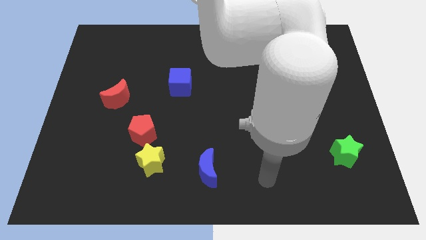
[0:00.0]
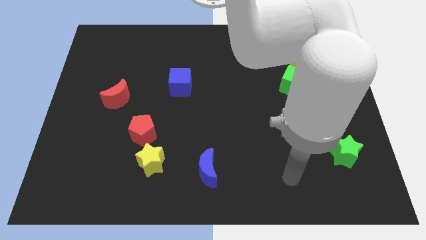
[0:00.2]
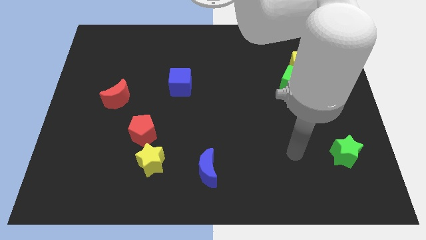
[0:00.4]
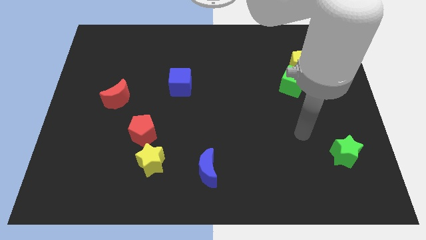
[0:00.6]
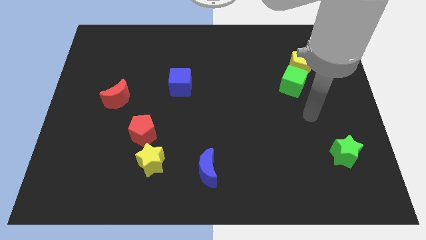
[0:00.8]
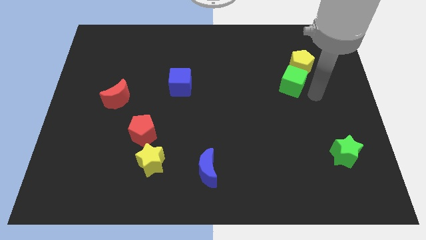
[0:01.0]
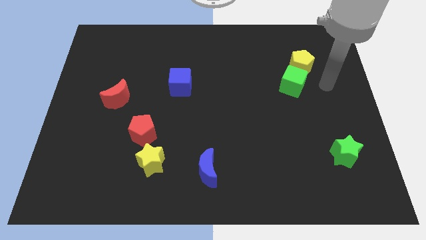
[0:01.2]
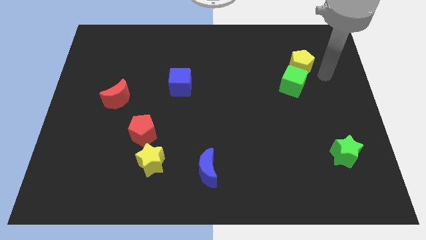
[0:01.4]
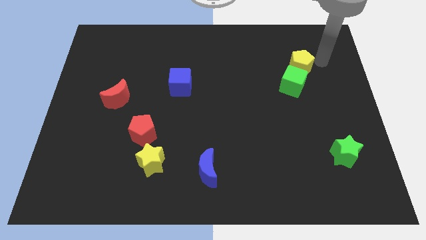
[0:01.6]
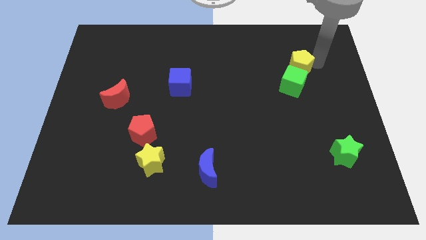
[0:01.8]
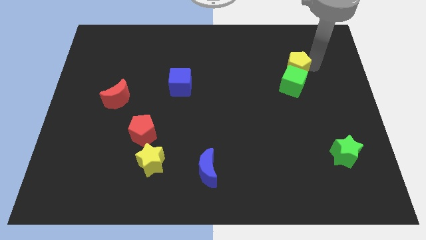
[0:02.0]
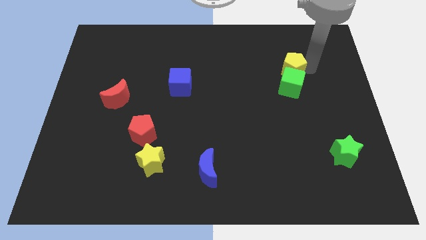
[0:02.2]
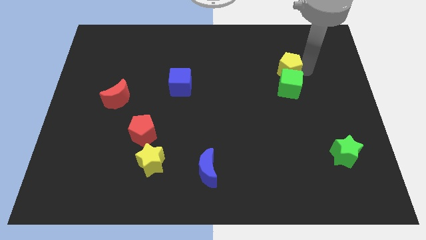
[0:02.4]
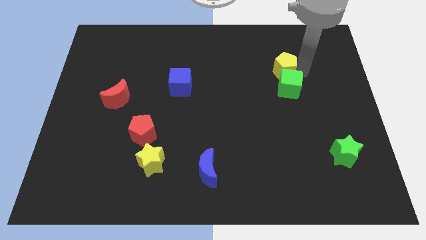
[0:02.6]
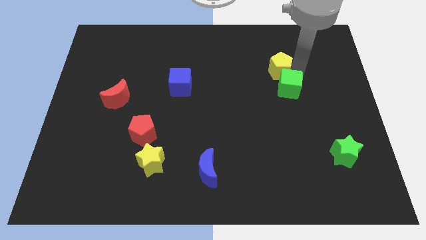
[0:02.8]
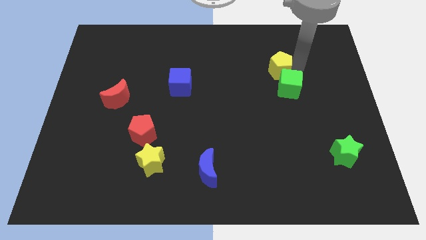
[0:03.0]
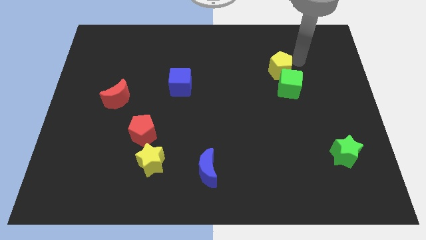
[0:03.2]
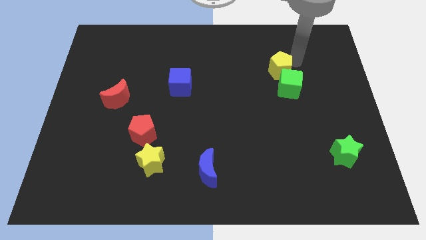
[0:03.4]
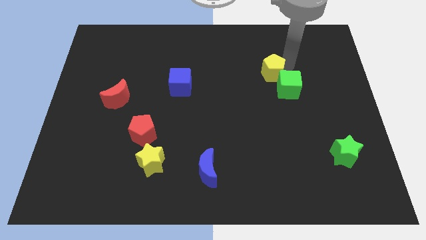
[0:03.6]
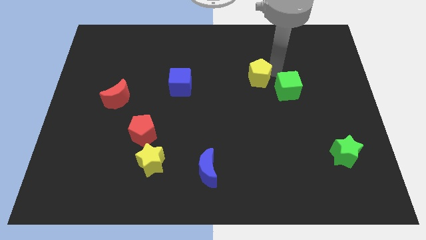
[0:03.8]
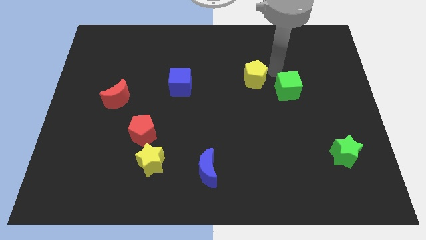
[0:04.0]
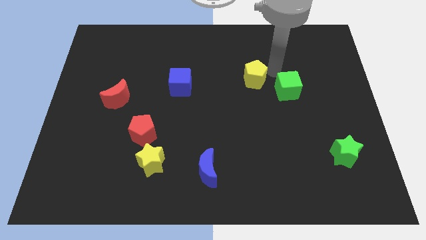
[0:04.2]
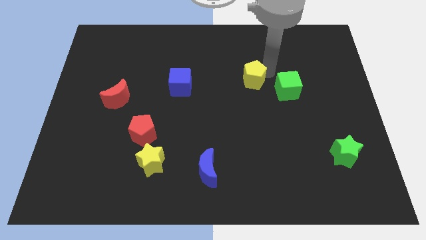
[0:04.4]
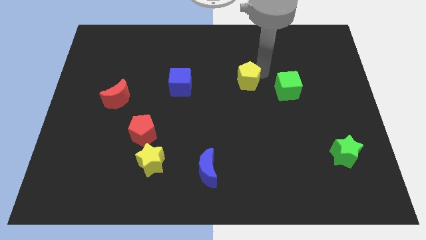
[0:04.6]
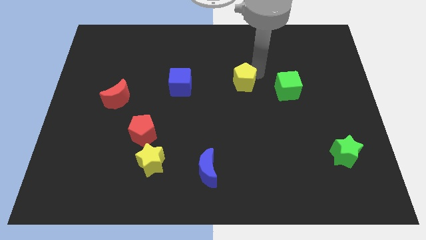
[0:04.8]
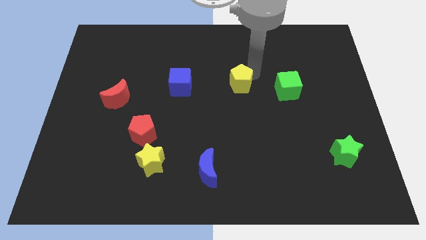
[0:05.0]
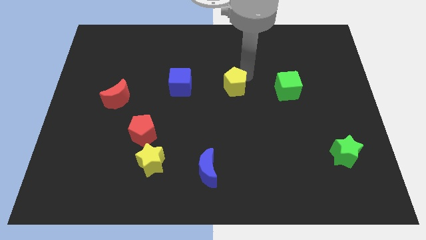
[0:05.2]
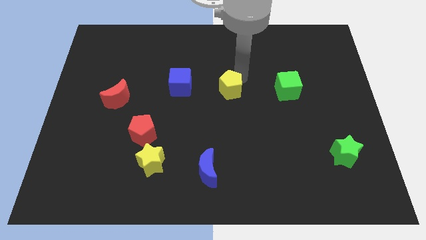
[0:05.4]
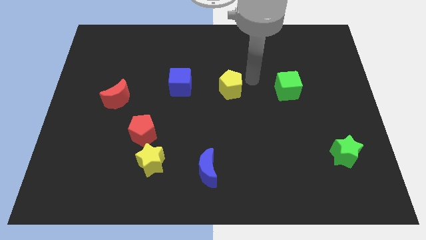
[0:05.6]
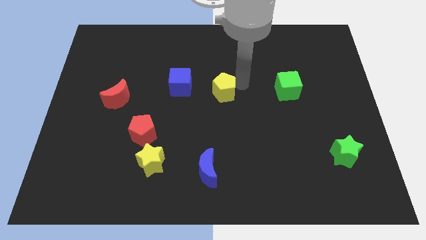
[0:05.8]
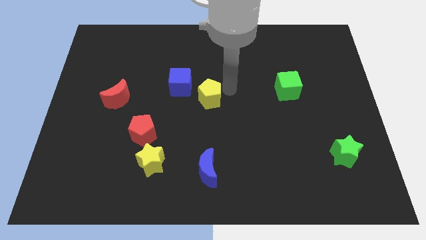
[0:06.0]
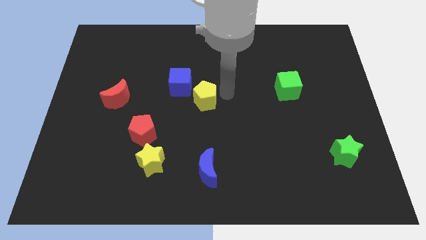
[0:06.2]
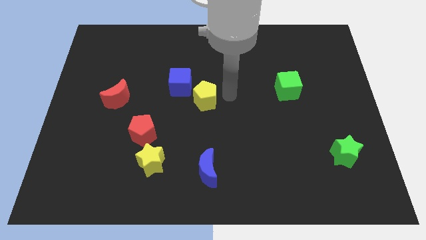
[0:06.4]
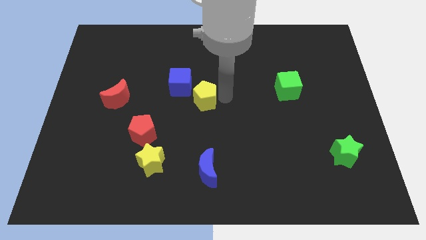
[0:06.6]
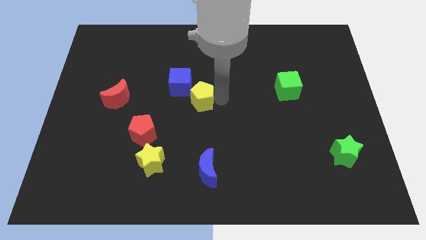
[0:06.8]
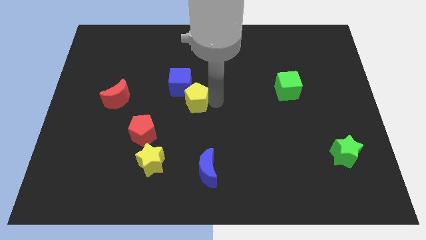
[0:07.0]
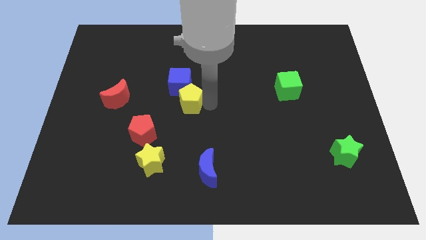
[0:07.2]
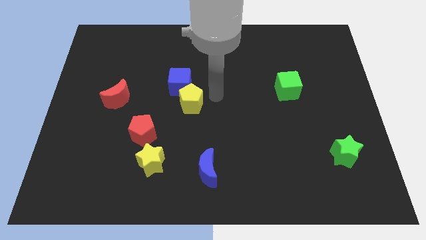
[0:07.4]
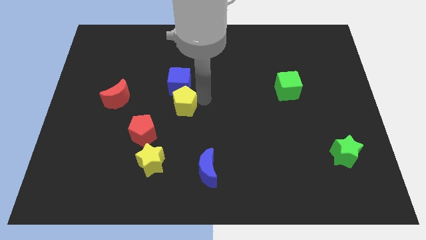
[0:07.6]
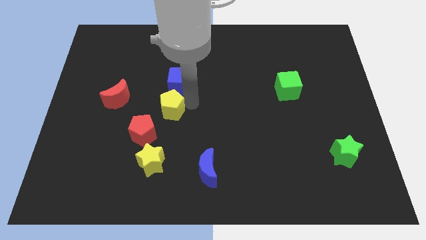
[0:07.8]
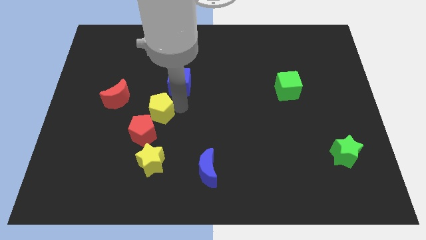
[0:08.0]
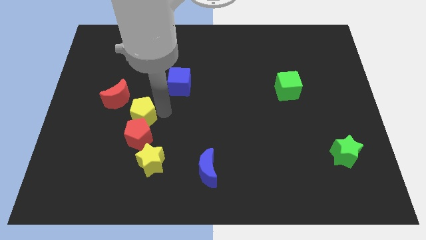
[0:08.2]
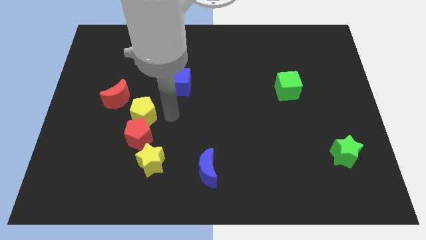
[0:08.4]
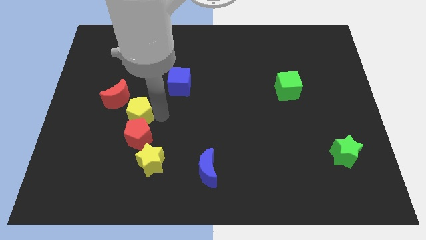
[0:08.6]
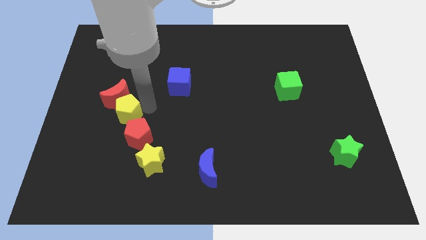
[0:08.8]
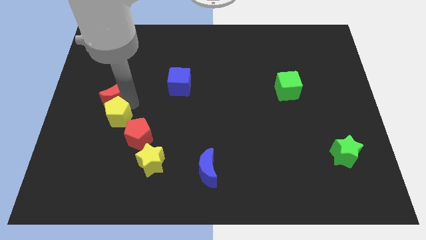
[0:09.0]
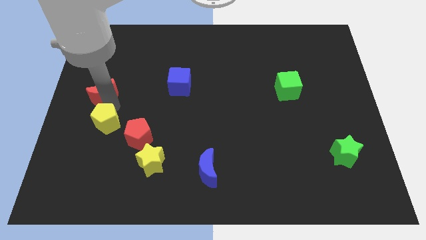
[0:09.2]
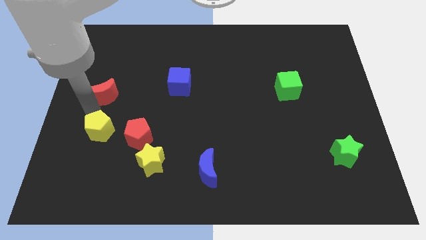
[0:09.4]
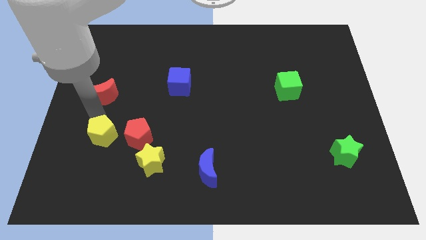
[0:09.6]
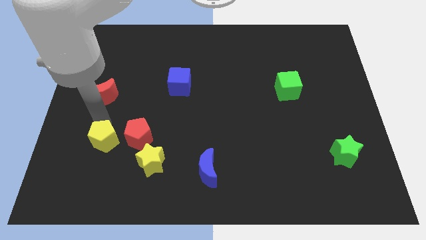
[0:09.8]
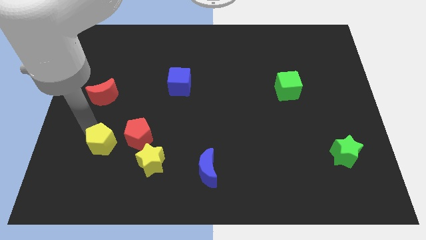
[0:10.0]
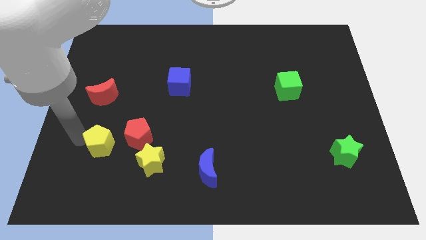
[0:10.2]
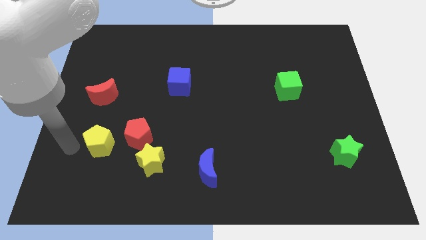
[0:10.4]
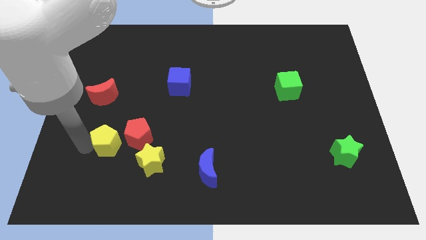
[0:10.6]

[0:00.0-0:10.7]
put the yellow pentagon diagonally up and to the left of the yellow star

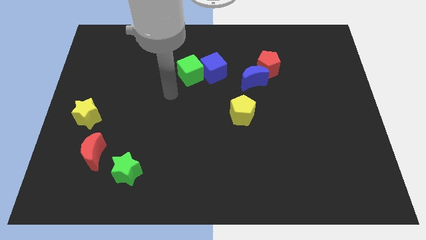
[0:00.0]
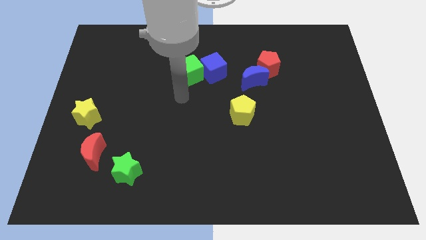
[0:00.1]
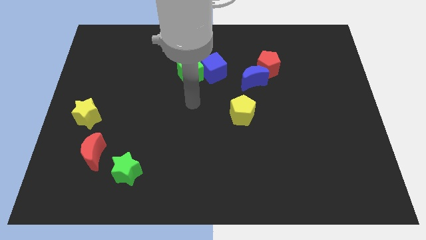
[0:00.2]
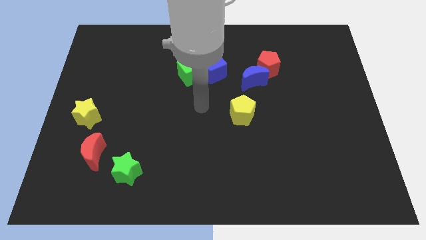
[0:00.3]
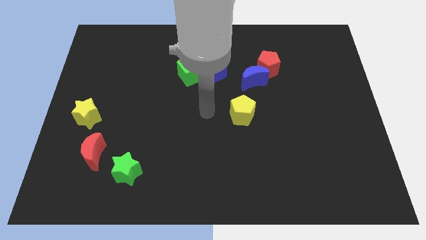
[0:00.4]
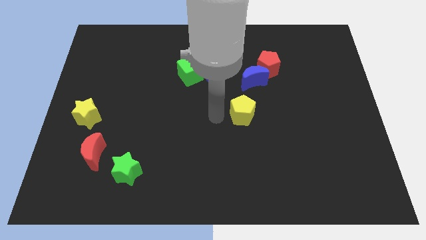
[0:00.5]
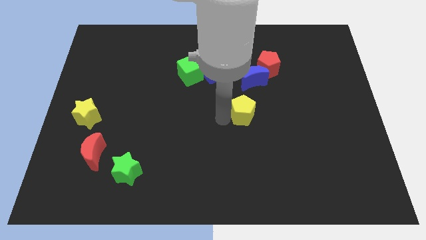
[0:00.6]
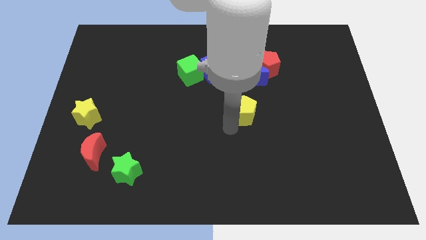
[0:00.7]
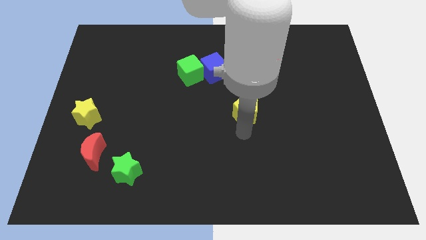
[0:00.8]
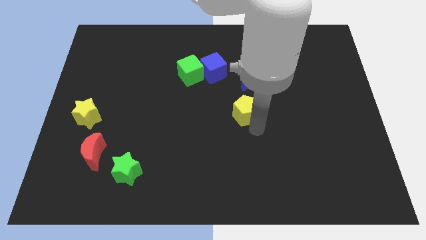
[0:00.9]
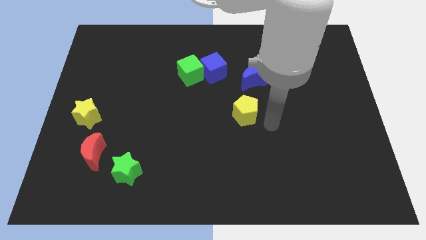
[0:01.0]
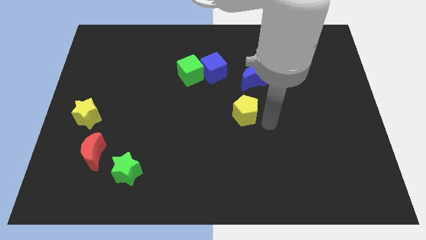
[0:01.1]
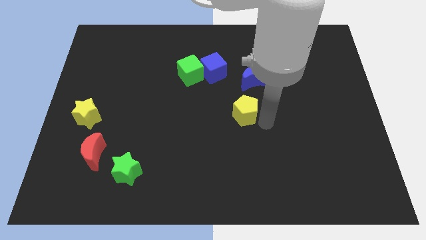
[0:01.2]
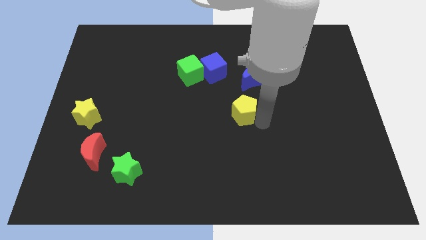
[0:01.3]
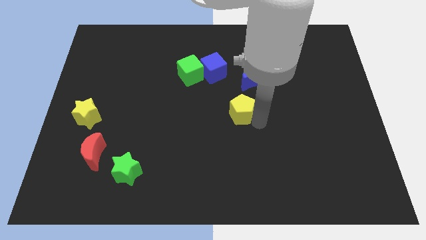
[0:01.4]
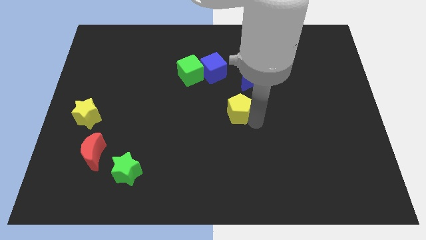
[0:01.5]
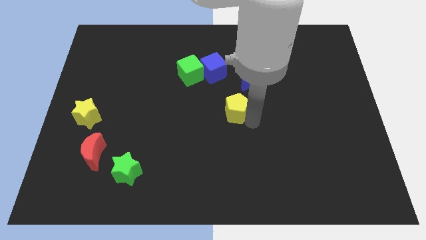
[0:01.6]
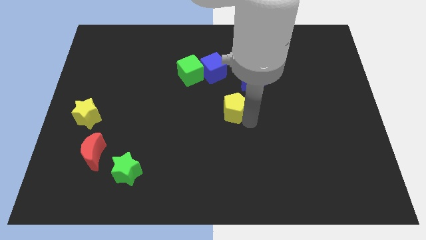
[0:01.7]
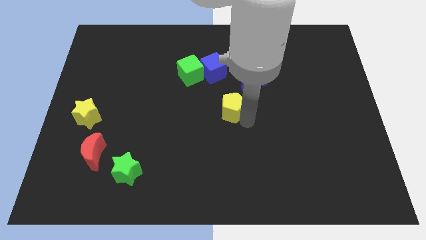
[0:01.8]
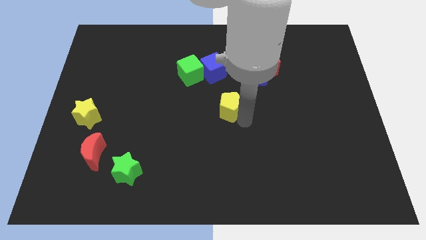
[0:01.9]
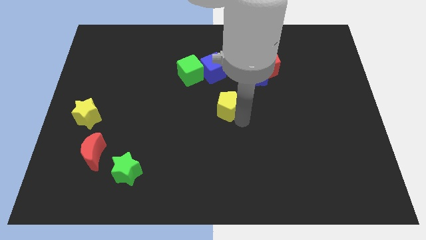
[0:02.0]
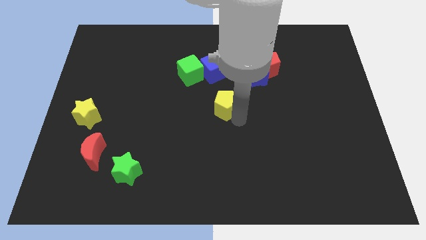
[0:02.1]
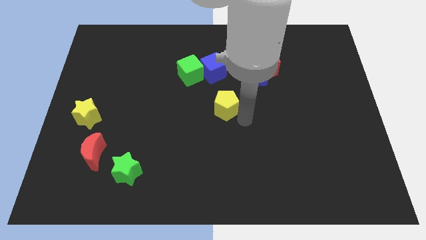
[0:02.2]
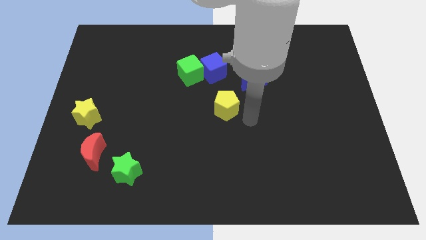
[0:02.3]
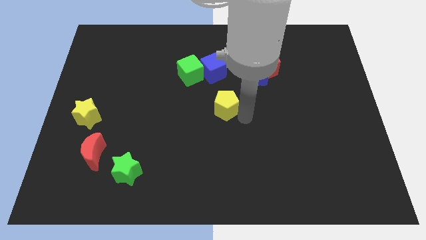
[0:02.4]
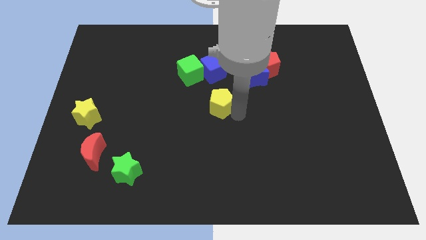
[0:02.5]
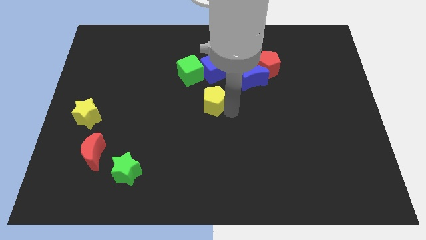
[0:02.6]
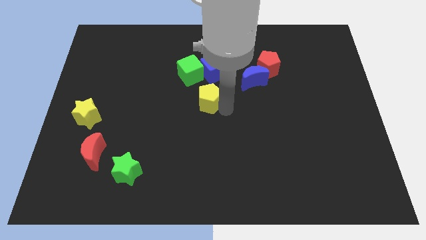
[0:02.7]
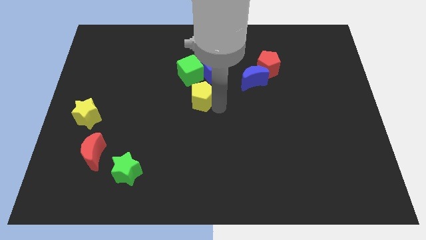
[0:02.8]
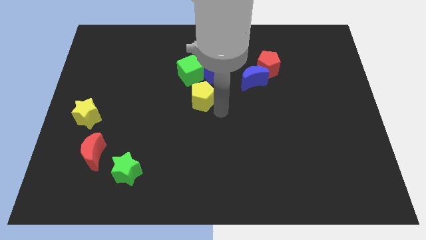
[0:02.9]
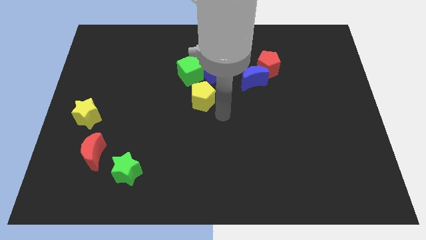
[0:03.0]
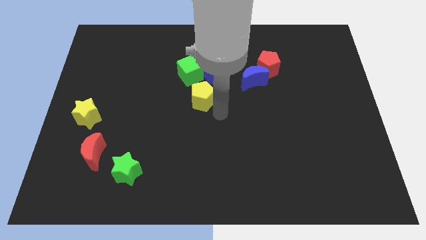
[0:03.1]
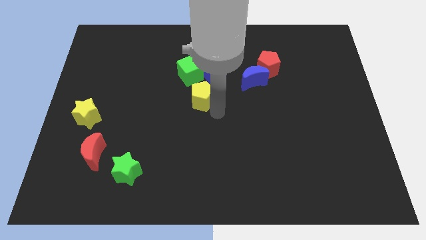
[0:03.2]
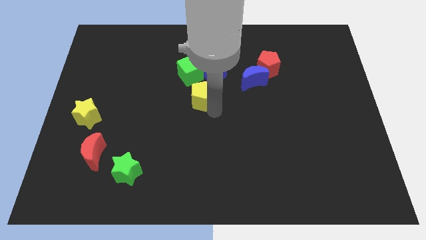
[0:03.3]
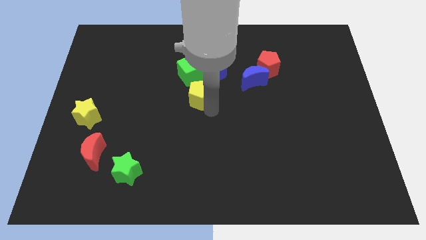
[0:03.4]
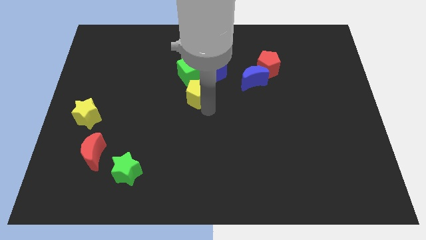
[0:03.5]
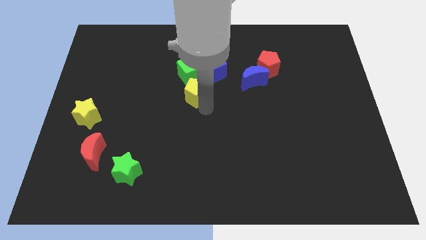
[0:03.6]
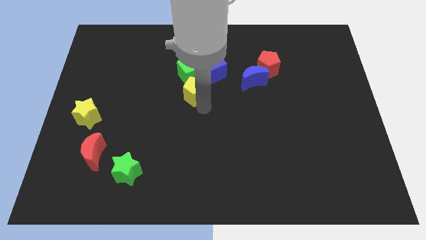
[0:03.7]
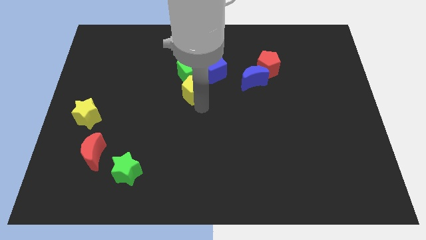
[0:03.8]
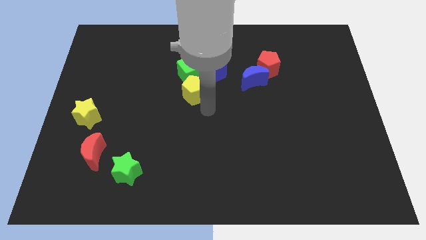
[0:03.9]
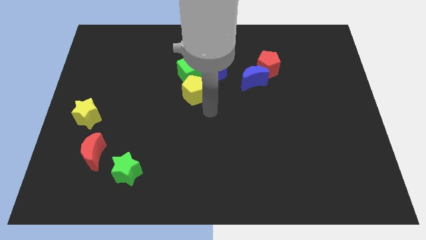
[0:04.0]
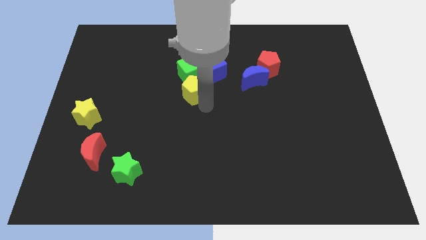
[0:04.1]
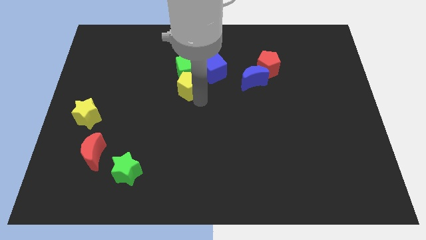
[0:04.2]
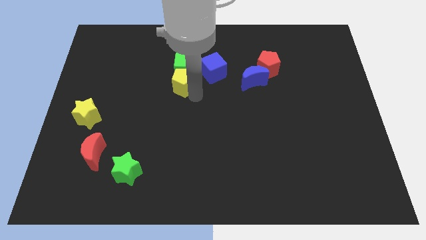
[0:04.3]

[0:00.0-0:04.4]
move the yellow pentagon just left of the blue cube
